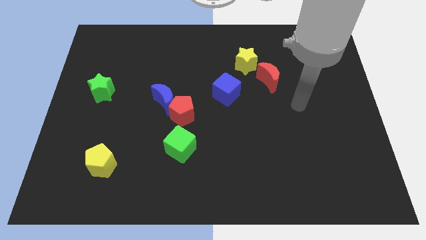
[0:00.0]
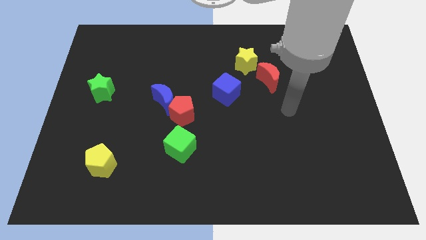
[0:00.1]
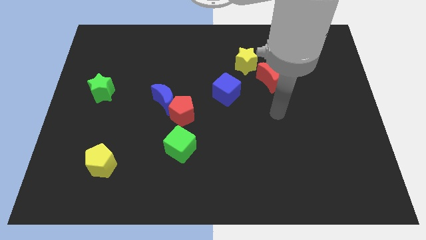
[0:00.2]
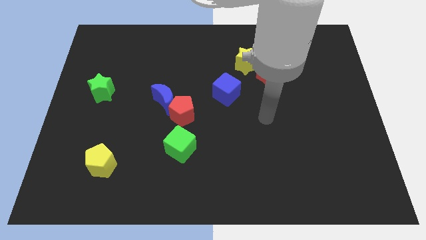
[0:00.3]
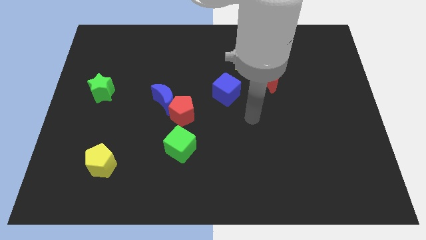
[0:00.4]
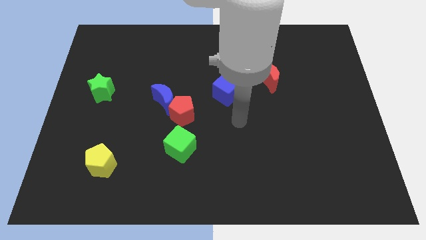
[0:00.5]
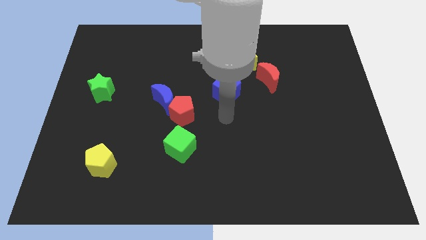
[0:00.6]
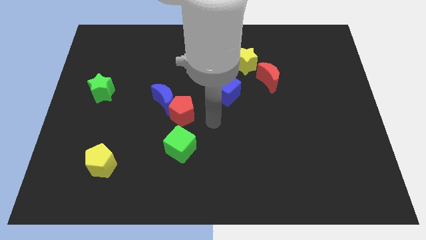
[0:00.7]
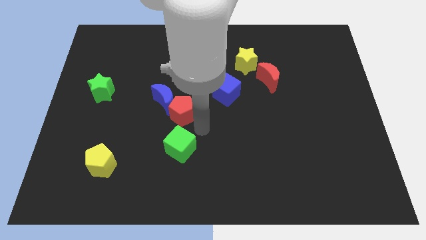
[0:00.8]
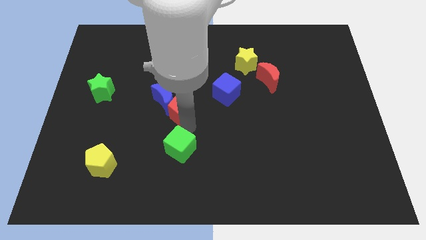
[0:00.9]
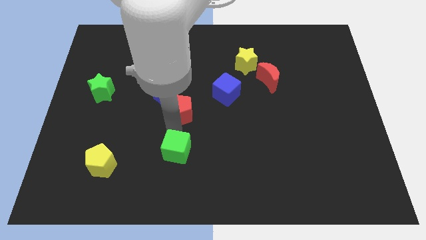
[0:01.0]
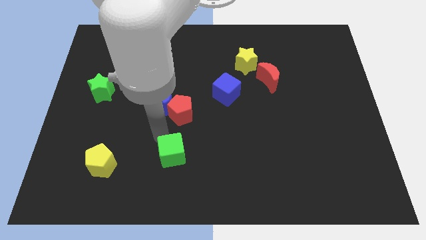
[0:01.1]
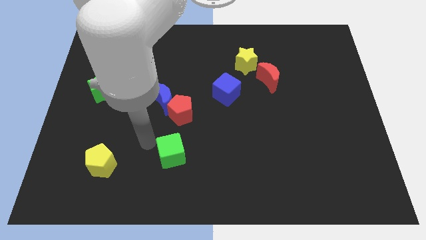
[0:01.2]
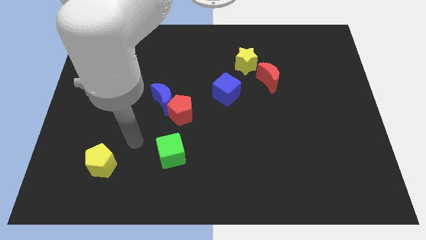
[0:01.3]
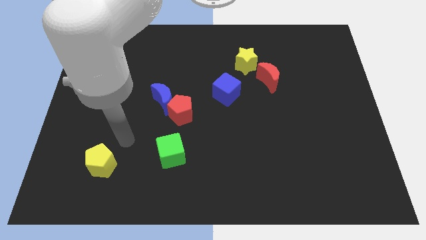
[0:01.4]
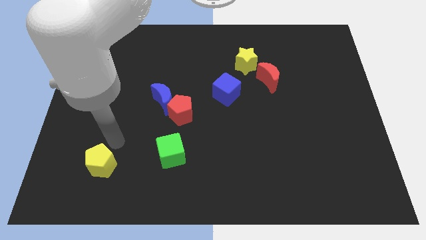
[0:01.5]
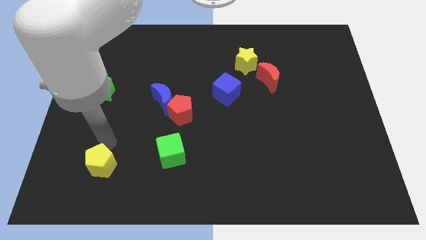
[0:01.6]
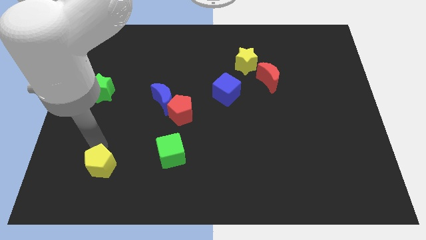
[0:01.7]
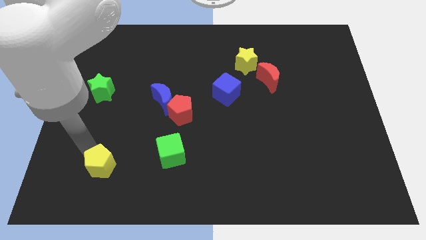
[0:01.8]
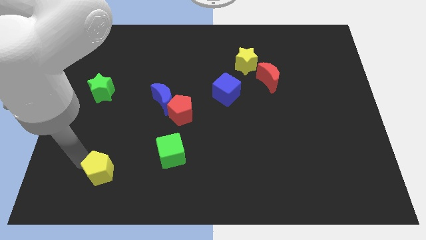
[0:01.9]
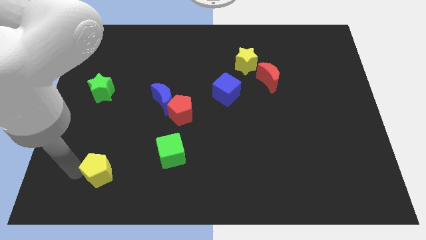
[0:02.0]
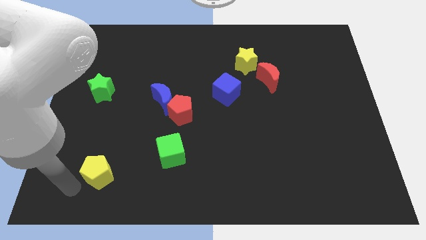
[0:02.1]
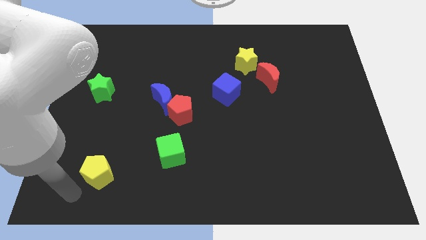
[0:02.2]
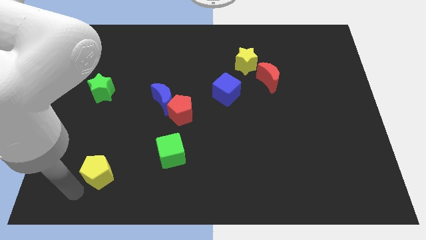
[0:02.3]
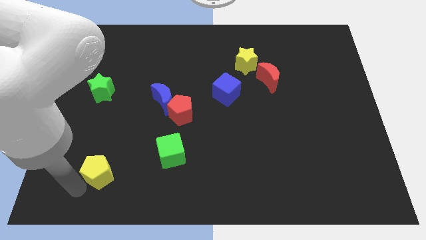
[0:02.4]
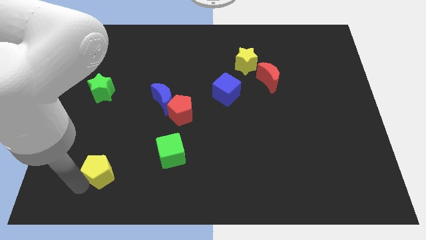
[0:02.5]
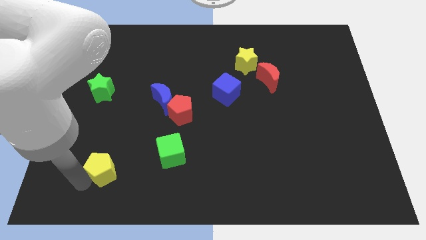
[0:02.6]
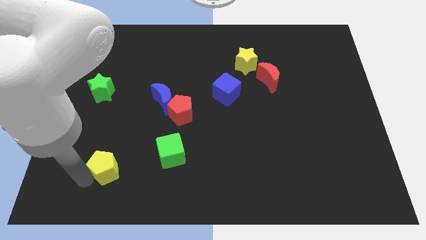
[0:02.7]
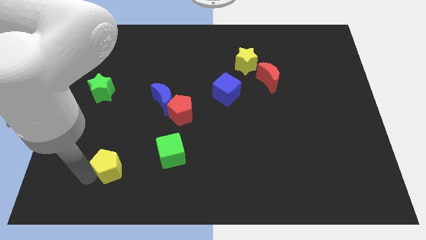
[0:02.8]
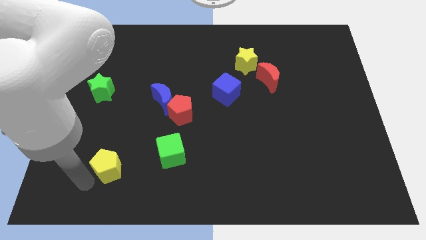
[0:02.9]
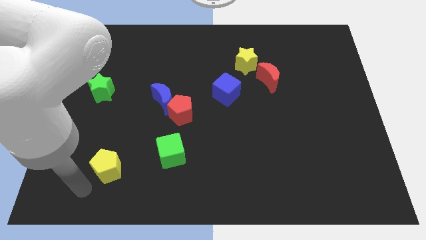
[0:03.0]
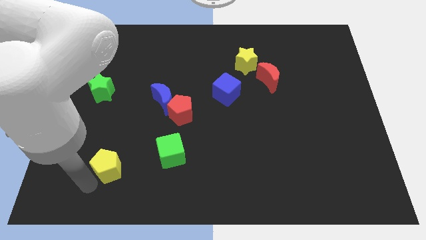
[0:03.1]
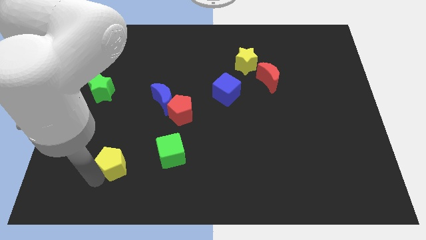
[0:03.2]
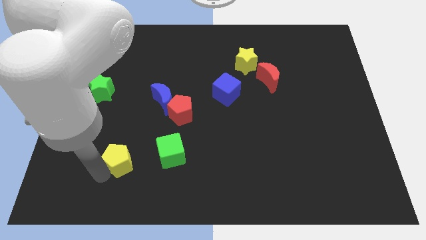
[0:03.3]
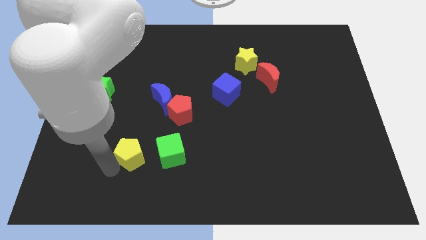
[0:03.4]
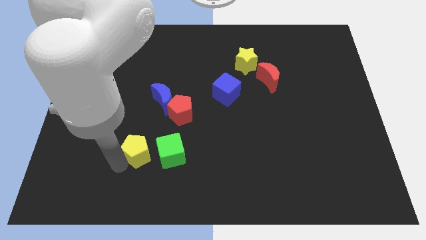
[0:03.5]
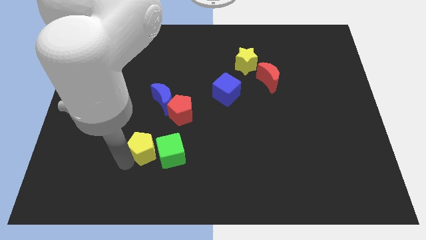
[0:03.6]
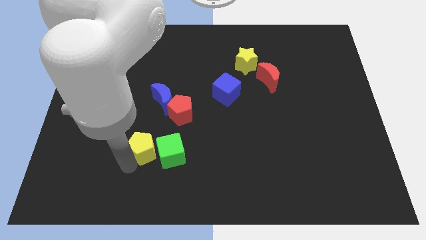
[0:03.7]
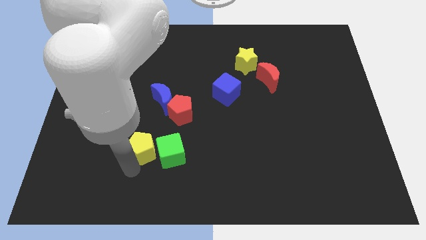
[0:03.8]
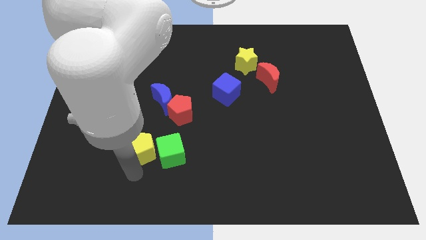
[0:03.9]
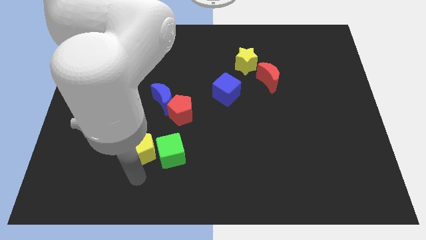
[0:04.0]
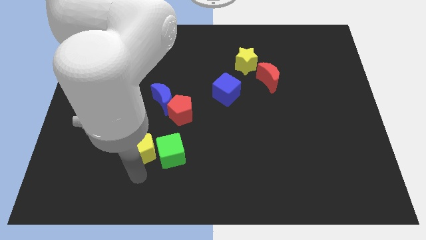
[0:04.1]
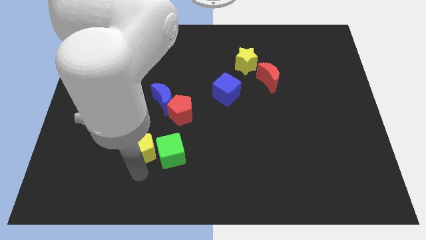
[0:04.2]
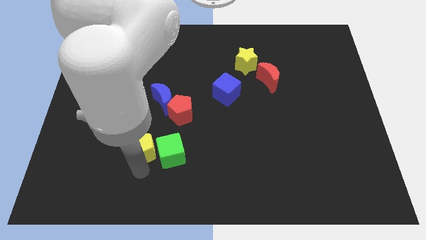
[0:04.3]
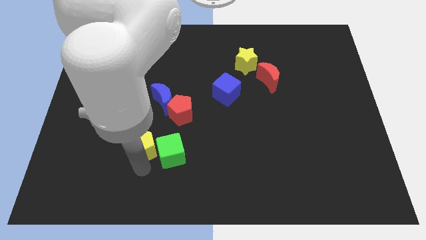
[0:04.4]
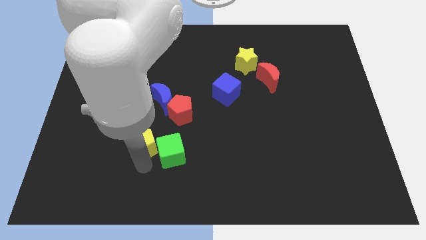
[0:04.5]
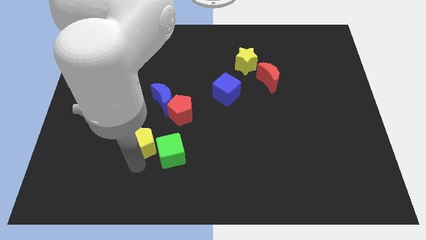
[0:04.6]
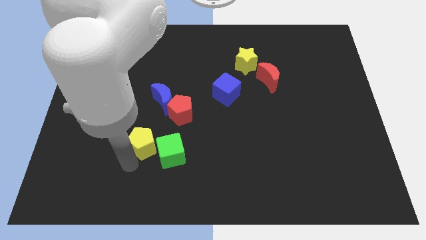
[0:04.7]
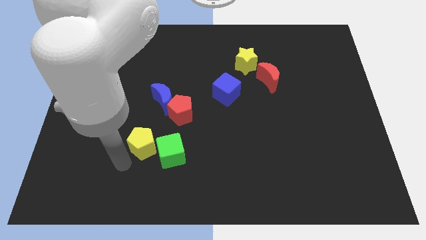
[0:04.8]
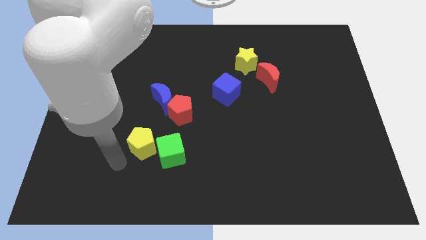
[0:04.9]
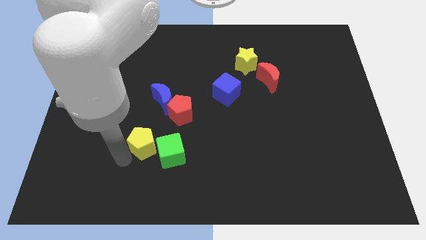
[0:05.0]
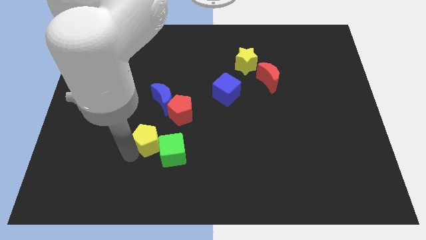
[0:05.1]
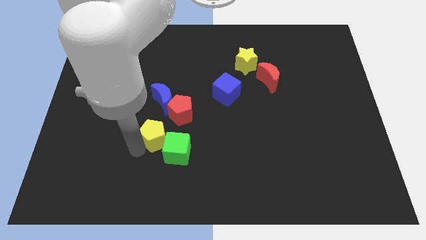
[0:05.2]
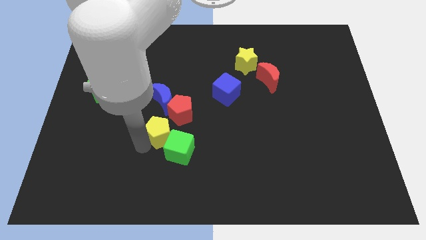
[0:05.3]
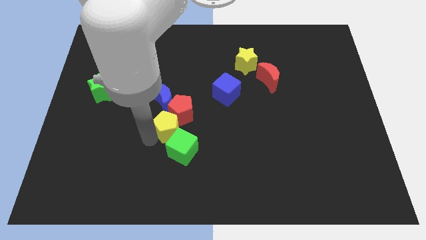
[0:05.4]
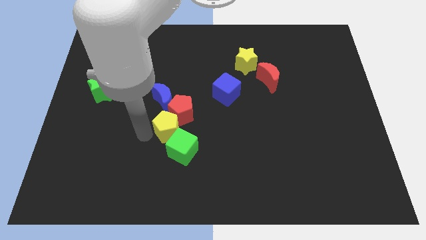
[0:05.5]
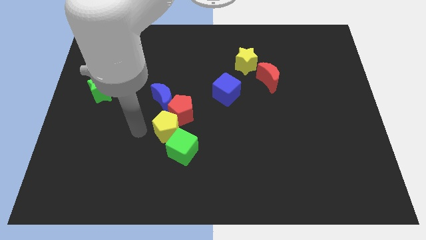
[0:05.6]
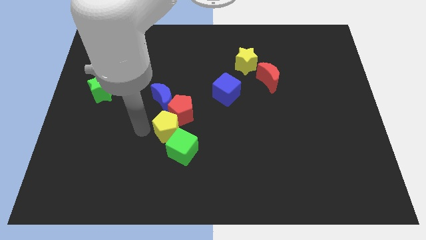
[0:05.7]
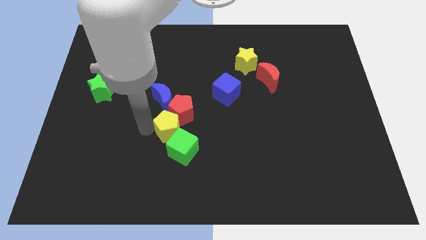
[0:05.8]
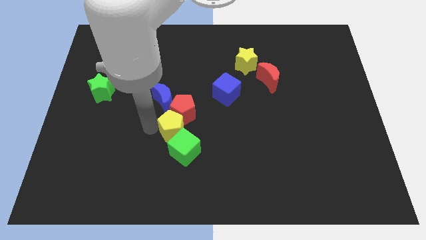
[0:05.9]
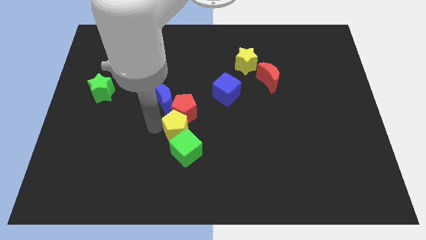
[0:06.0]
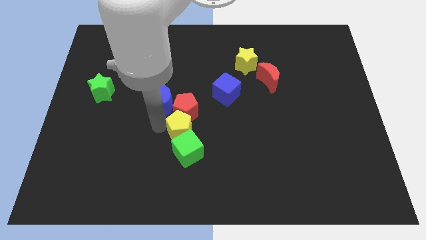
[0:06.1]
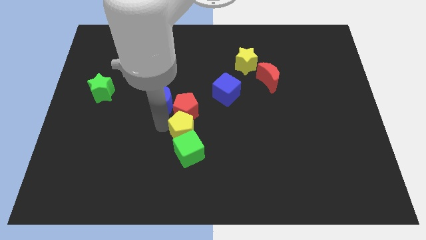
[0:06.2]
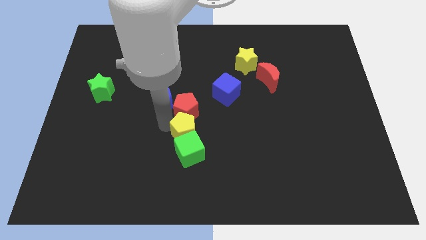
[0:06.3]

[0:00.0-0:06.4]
put the yellow pentagon to the top right side of the green cube
